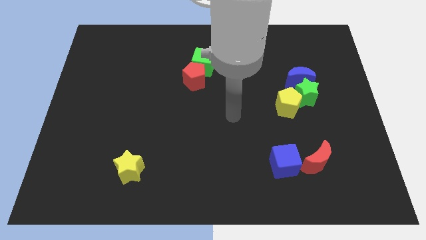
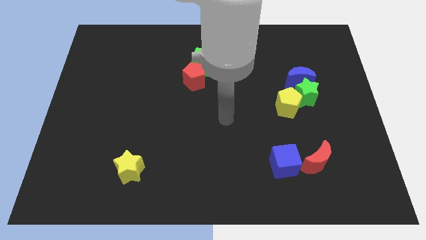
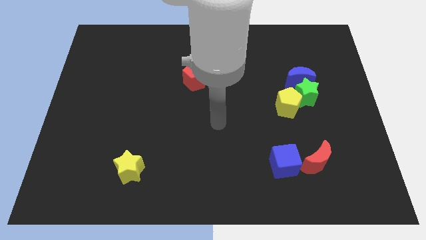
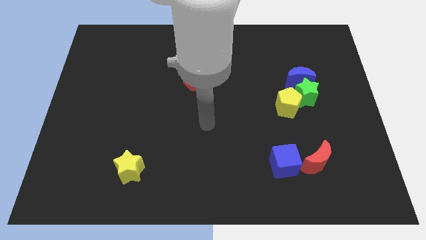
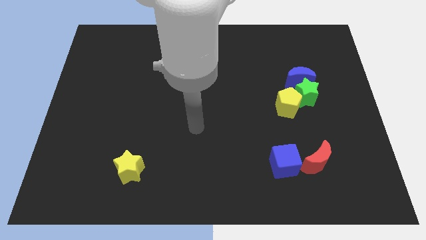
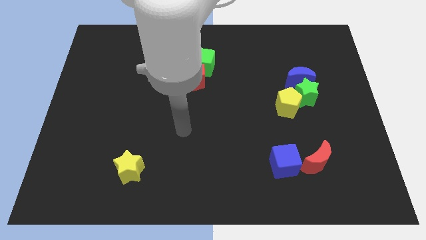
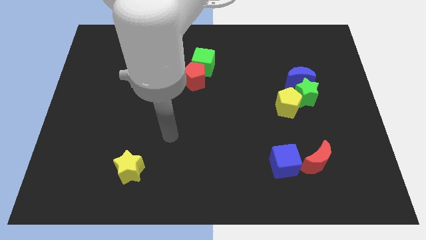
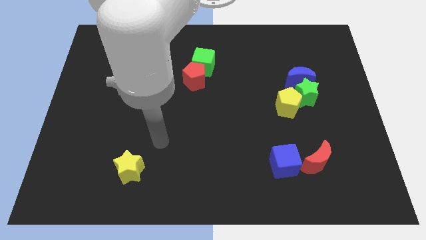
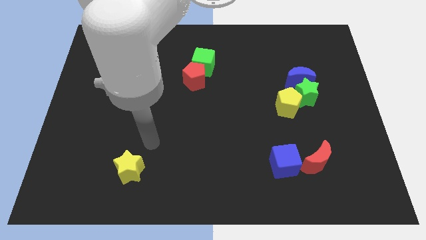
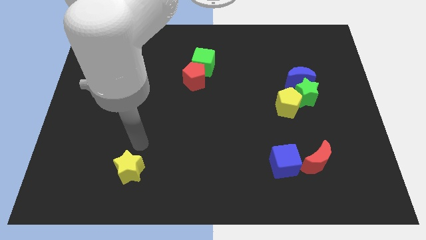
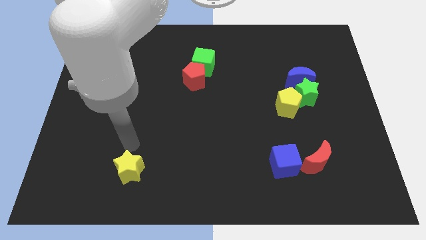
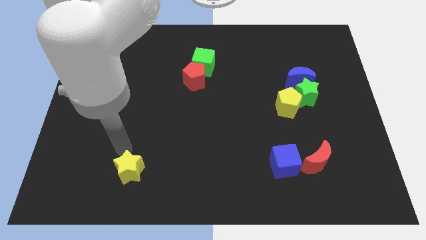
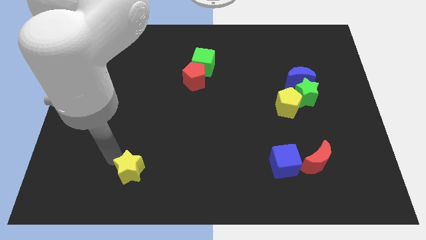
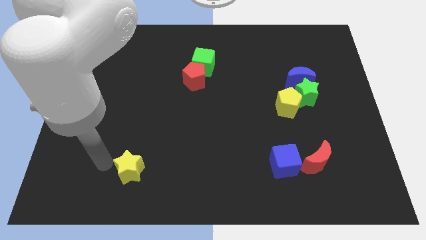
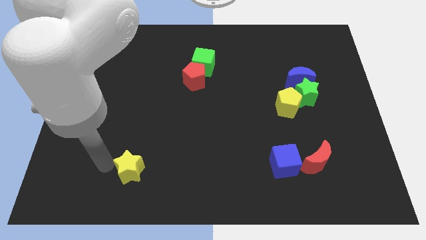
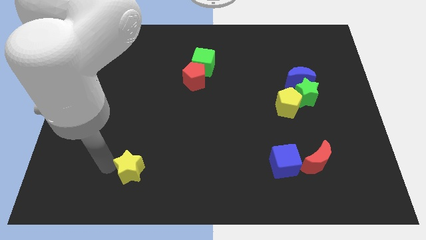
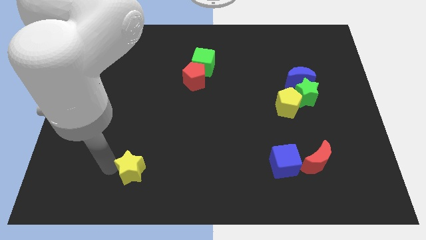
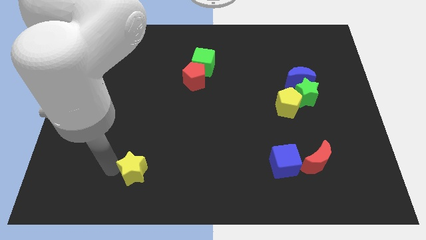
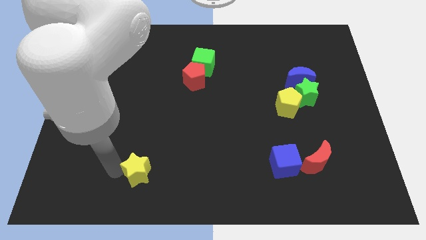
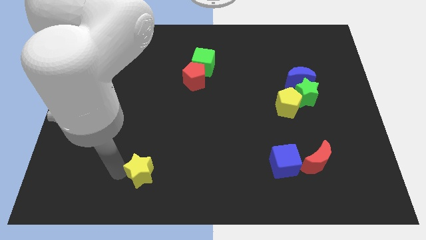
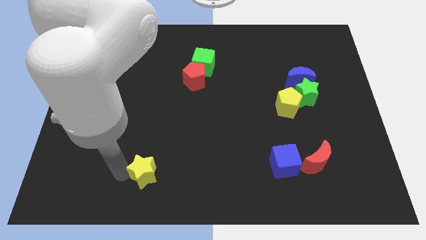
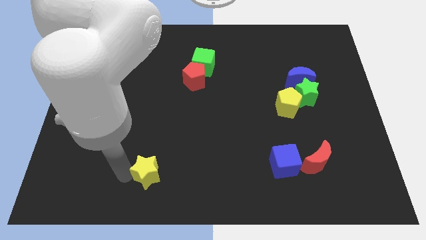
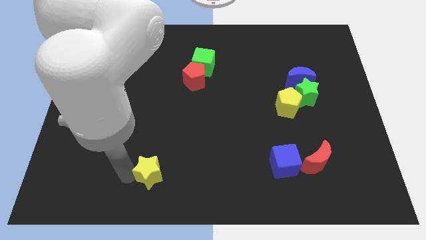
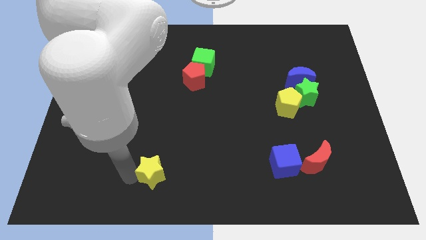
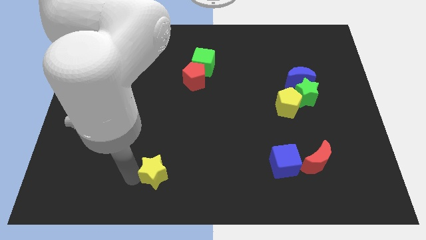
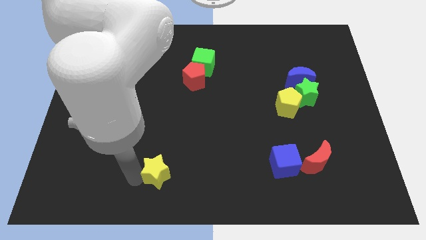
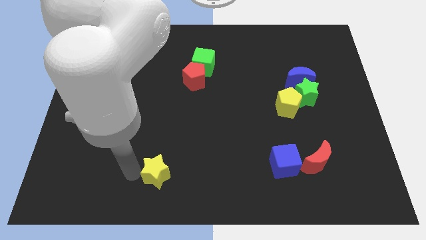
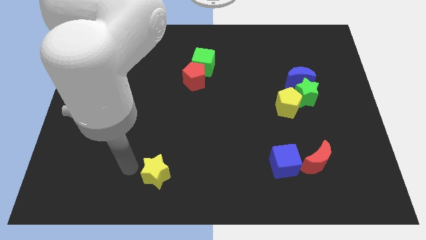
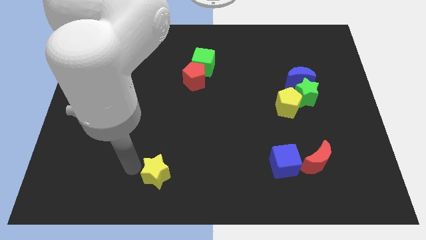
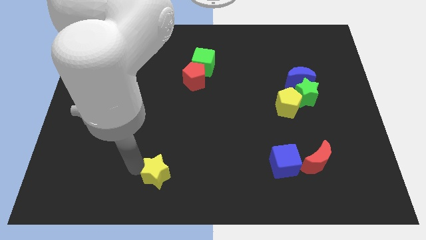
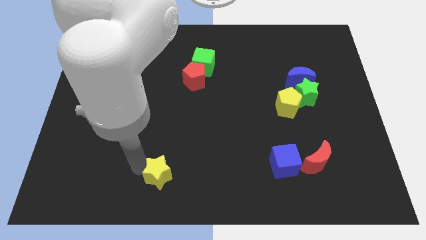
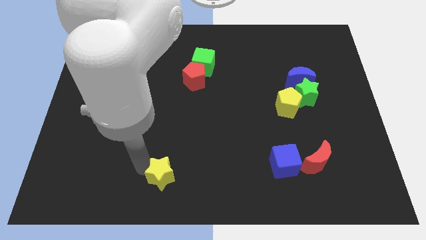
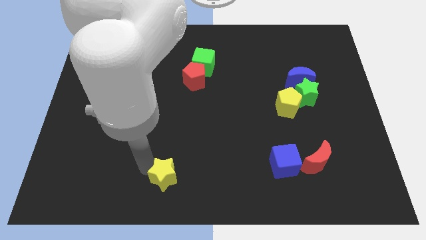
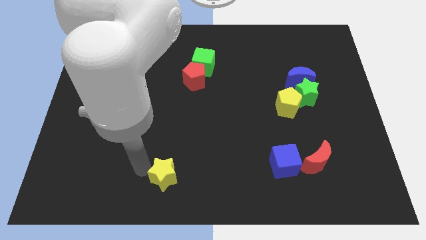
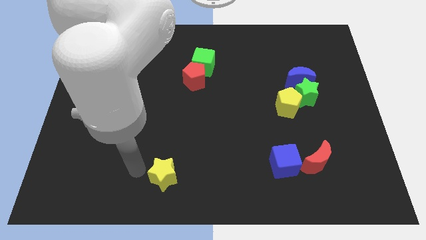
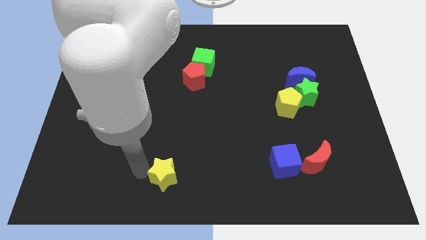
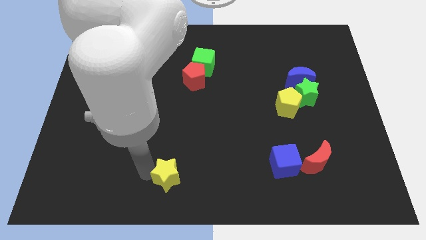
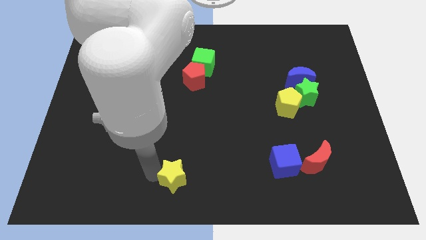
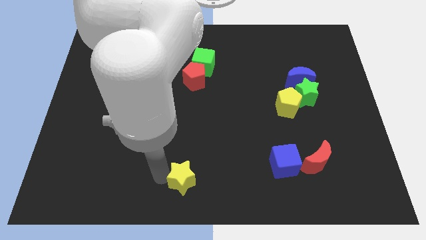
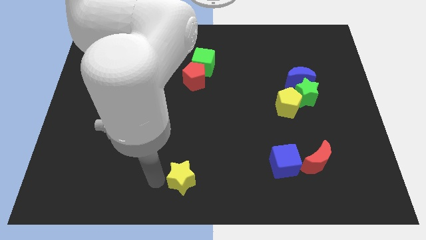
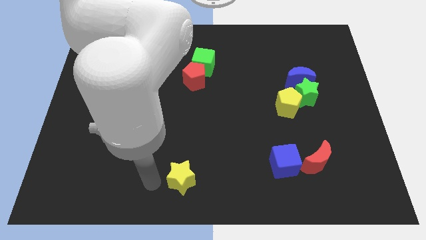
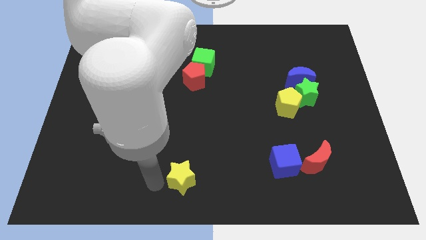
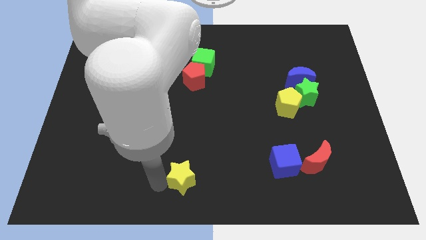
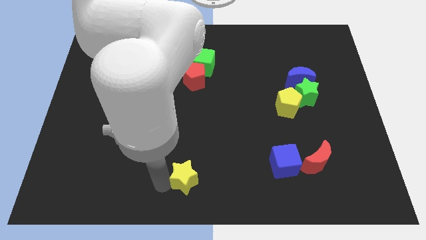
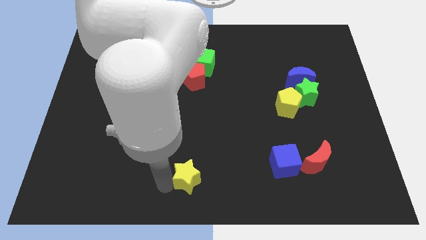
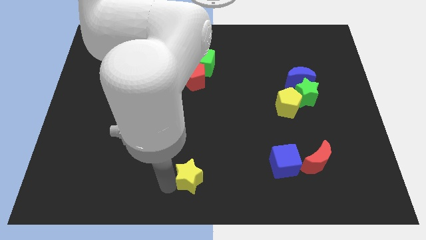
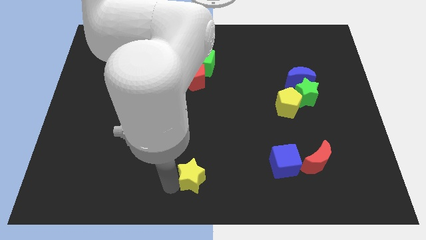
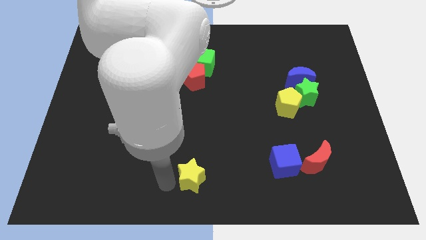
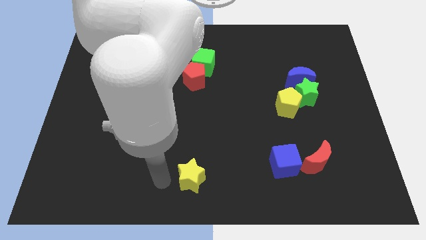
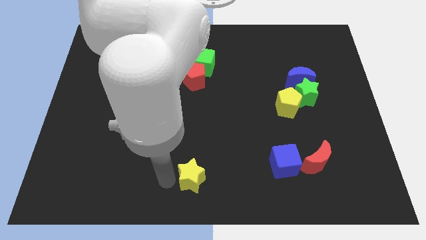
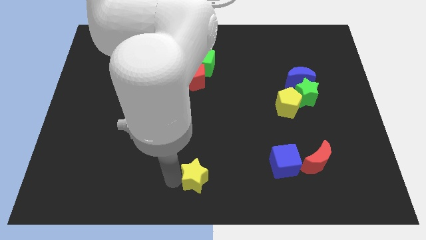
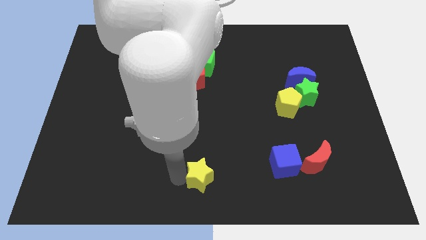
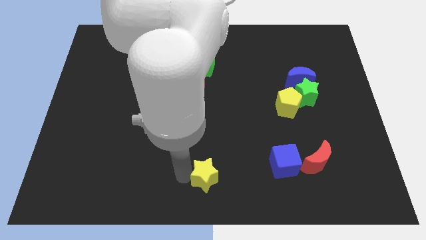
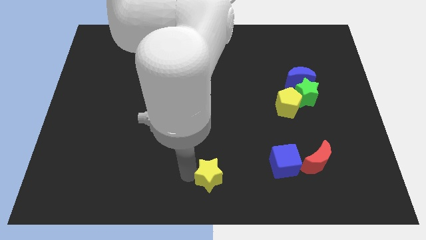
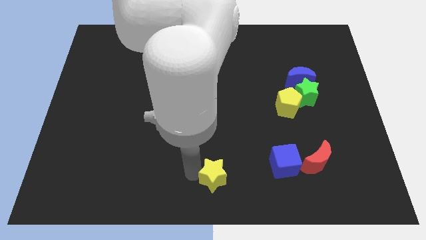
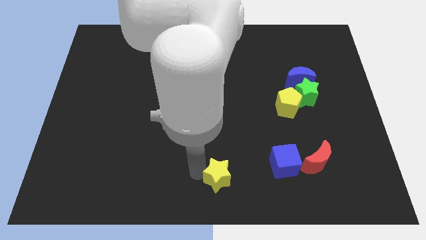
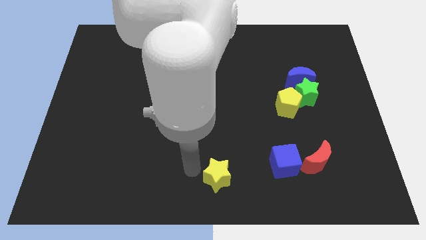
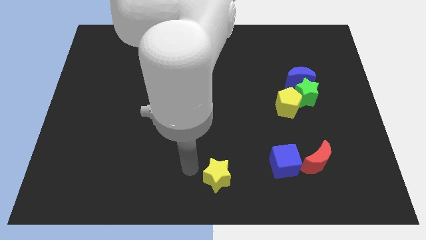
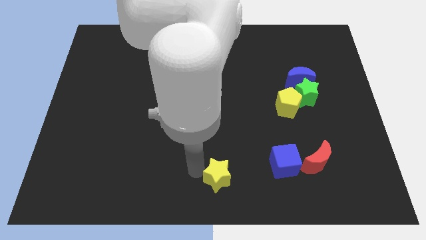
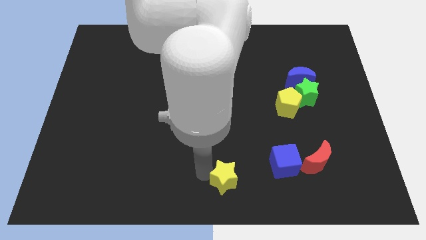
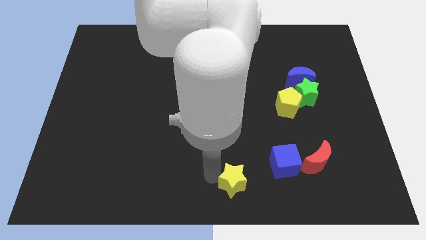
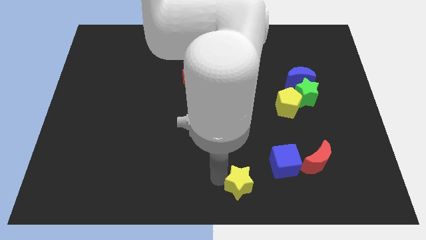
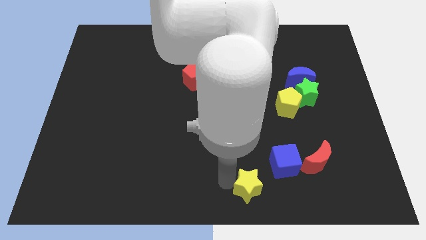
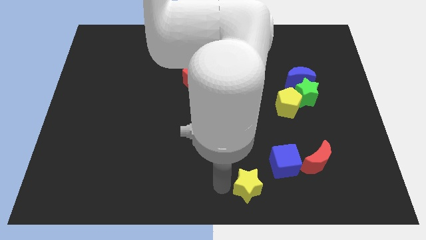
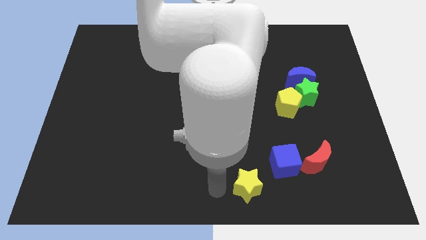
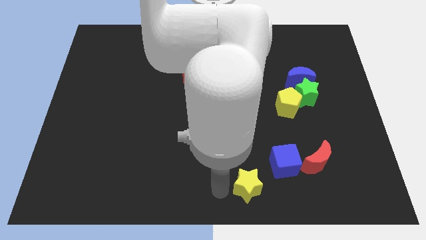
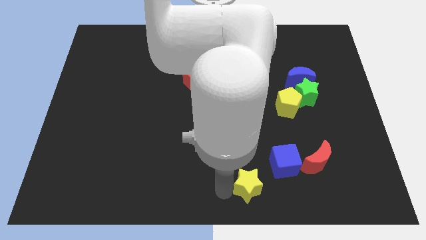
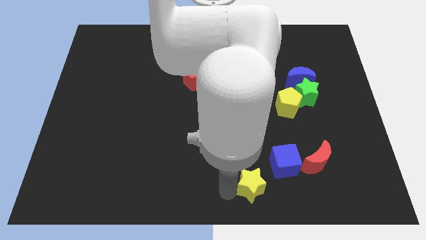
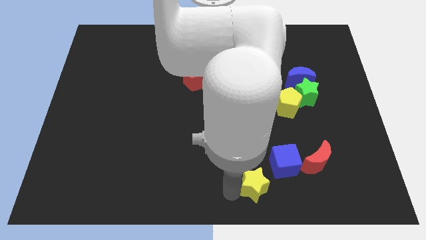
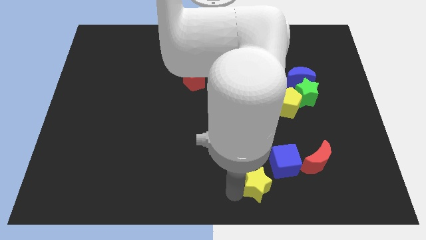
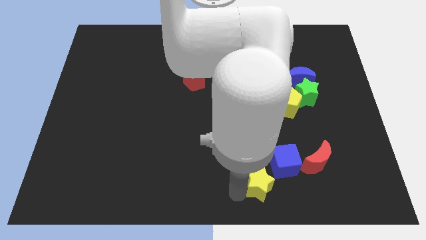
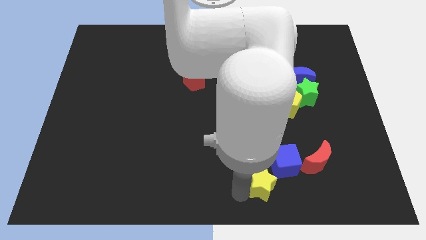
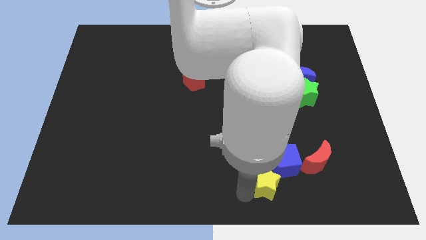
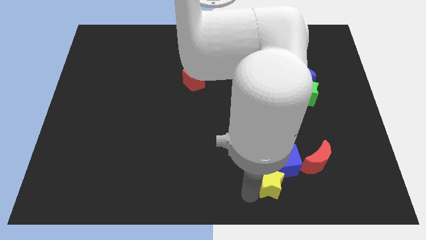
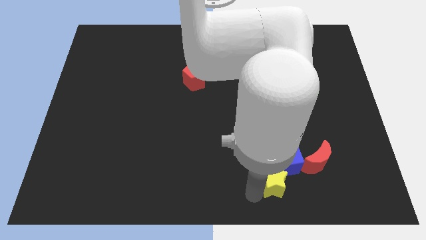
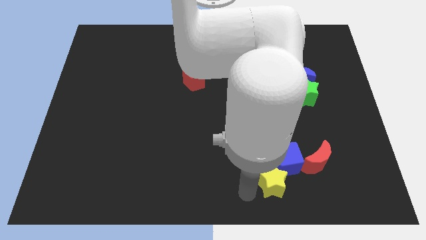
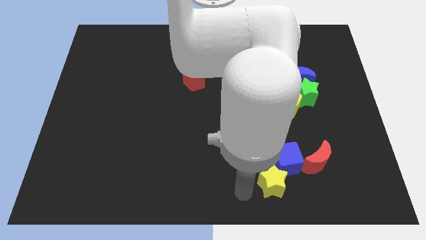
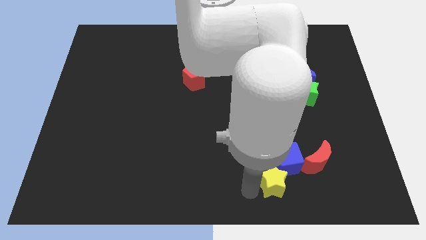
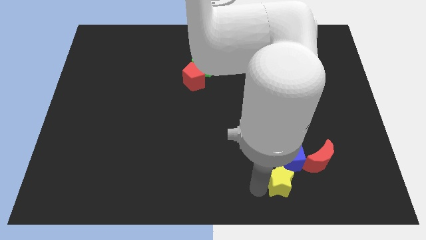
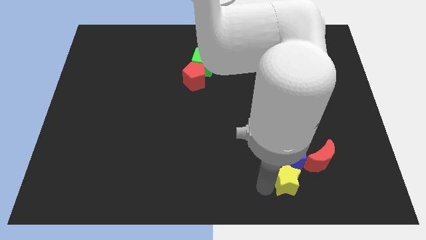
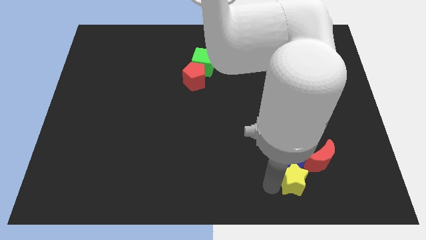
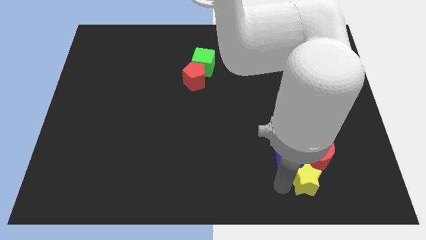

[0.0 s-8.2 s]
slide the yellow star close to the red moon
